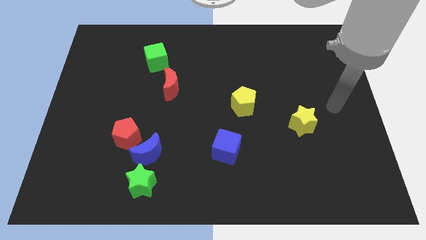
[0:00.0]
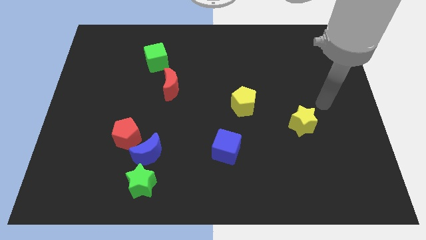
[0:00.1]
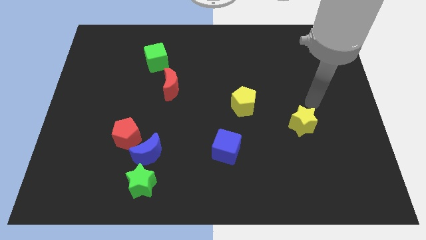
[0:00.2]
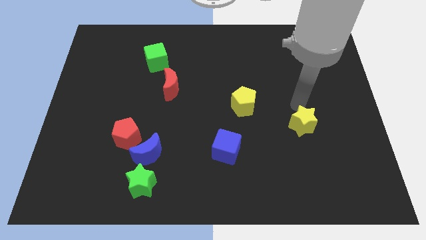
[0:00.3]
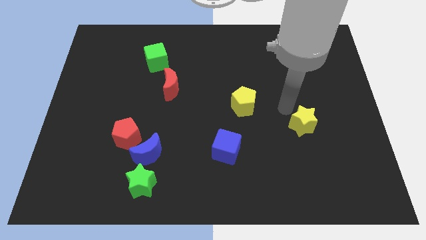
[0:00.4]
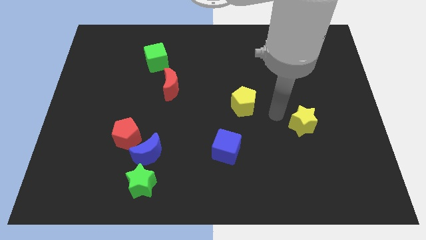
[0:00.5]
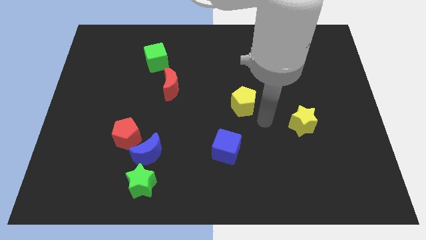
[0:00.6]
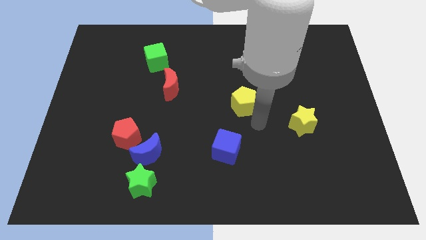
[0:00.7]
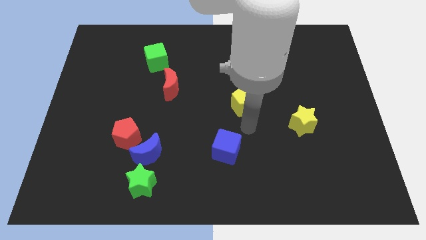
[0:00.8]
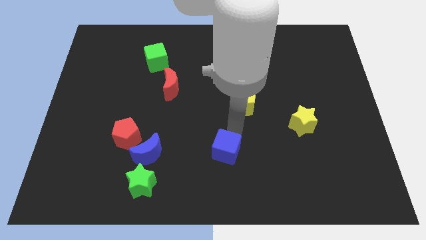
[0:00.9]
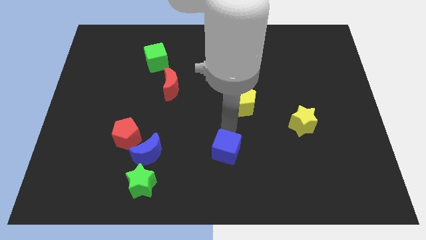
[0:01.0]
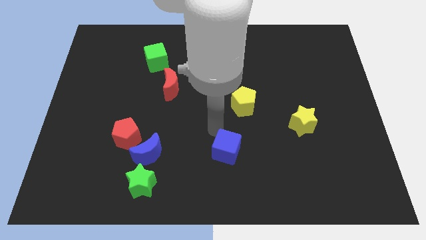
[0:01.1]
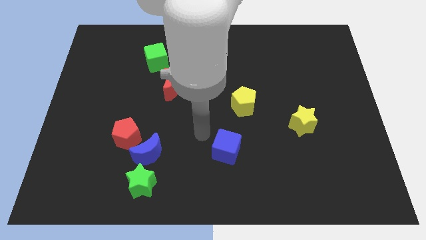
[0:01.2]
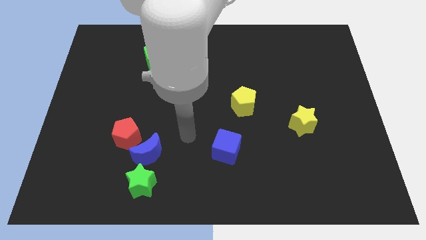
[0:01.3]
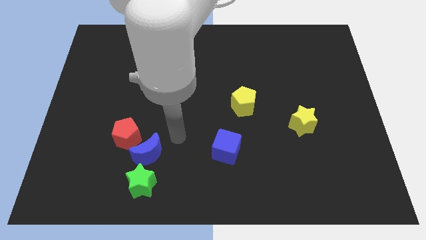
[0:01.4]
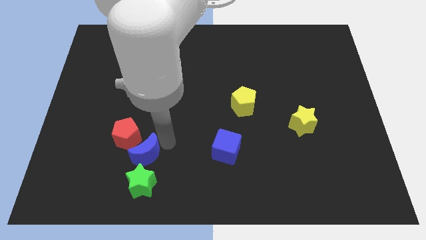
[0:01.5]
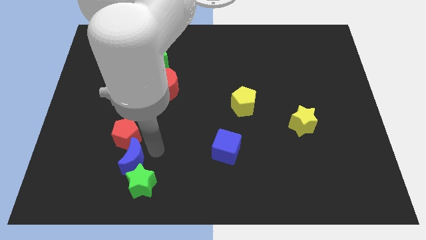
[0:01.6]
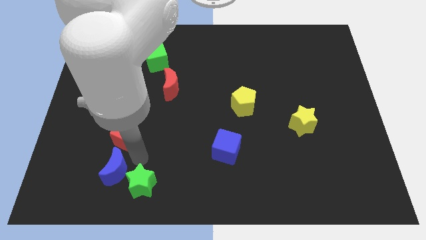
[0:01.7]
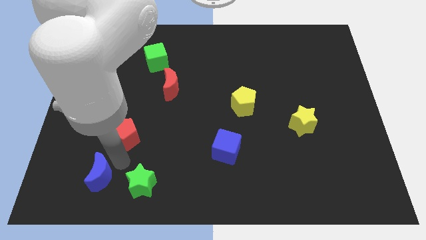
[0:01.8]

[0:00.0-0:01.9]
pull the red pentagon apart from the blue moon

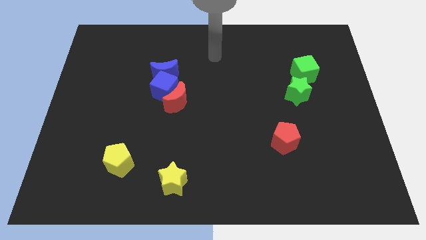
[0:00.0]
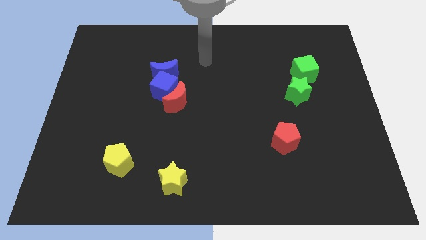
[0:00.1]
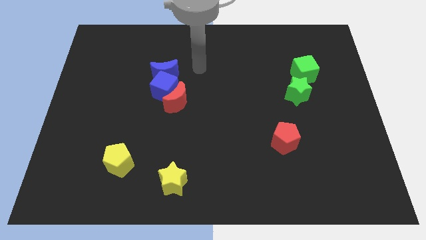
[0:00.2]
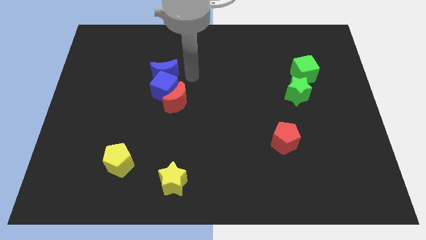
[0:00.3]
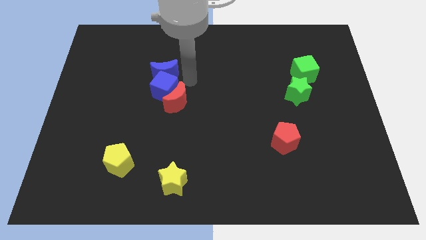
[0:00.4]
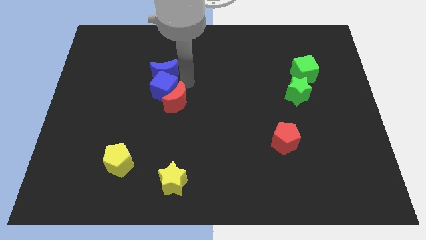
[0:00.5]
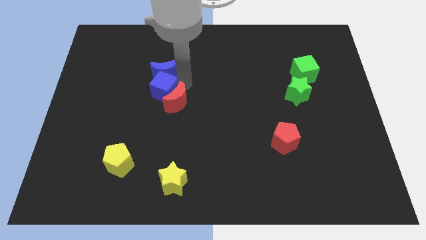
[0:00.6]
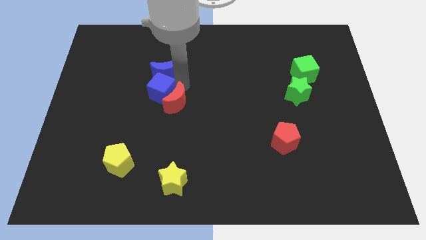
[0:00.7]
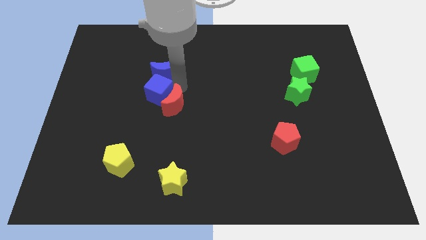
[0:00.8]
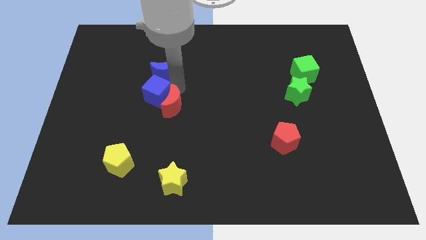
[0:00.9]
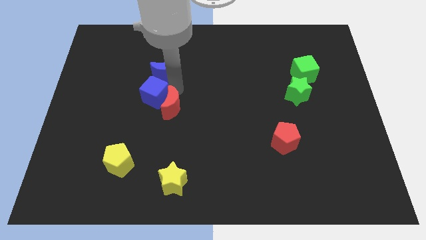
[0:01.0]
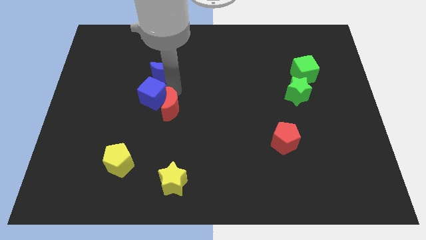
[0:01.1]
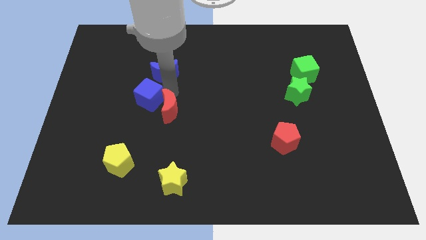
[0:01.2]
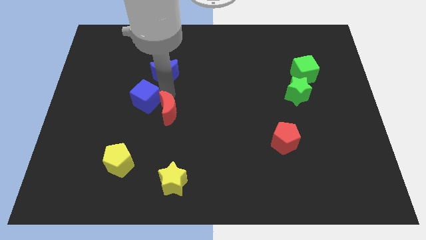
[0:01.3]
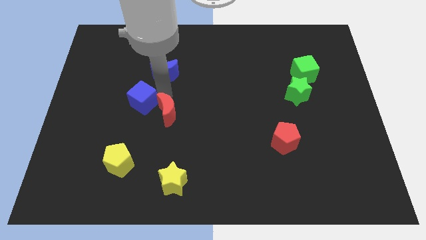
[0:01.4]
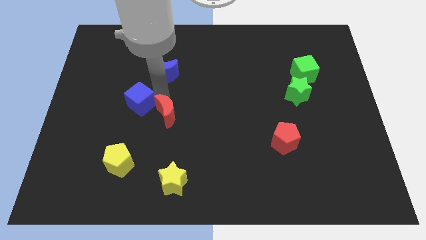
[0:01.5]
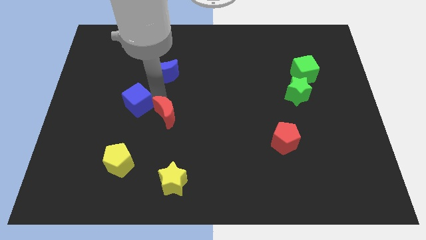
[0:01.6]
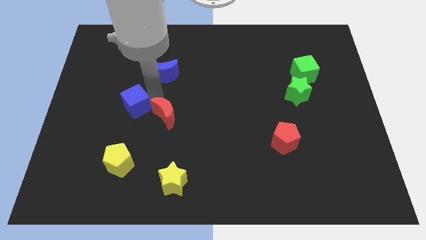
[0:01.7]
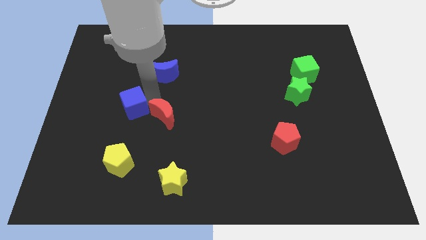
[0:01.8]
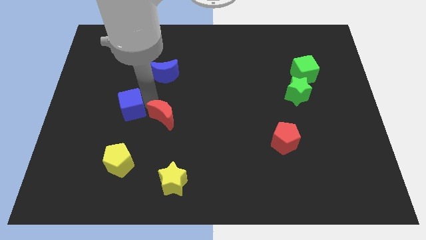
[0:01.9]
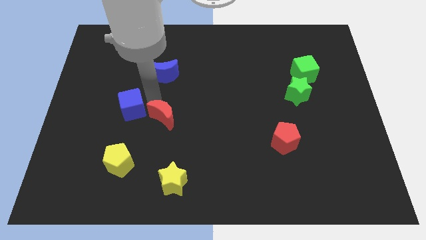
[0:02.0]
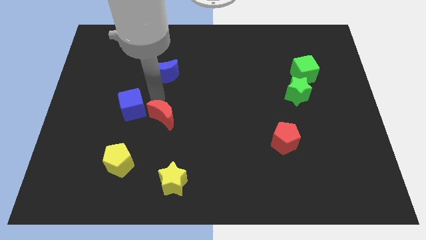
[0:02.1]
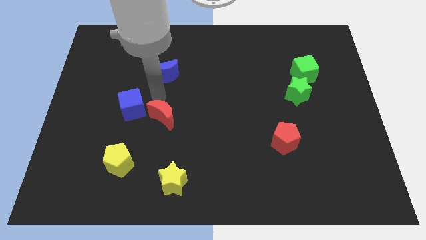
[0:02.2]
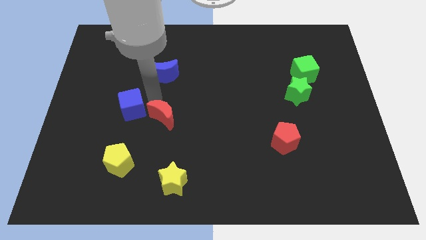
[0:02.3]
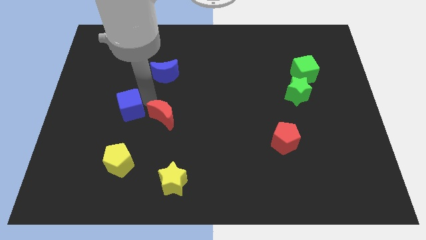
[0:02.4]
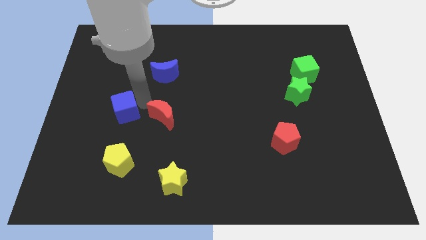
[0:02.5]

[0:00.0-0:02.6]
move the blue cube away from the red moon and blue moon

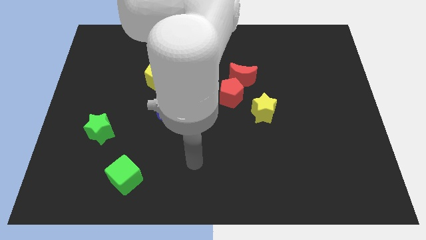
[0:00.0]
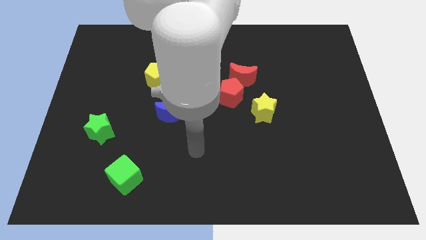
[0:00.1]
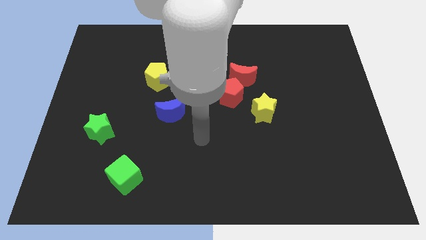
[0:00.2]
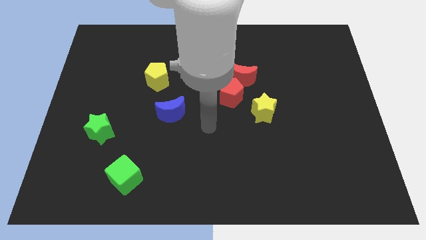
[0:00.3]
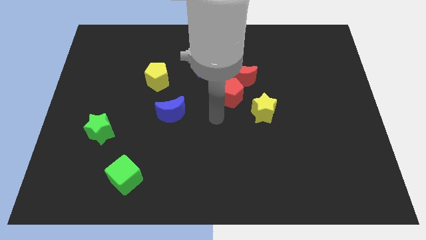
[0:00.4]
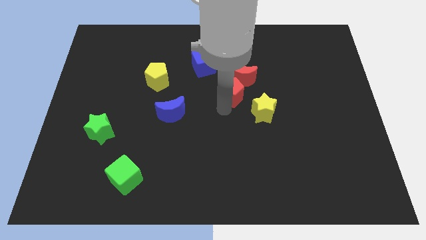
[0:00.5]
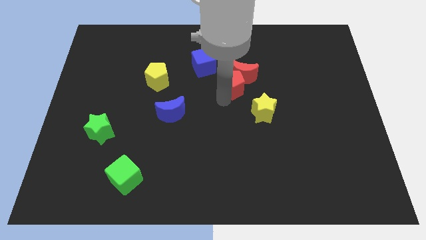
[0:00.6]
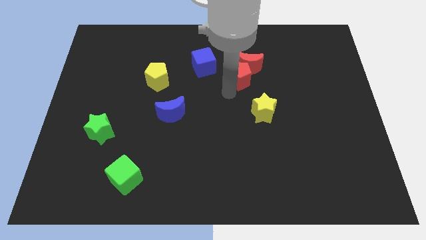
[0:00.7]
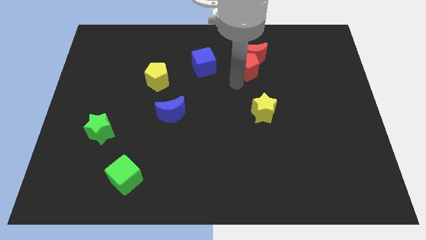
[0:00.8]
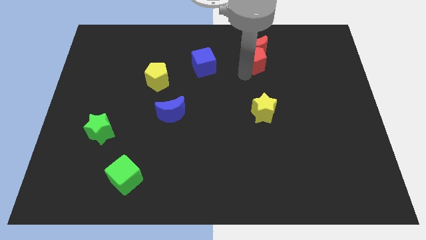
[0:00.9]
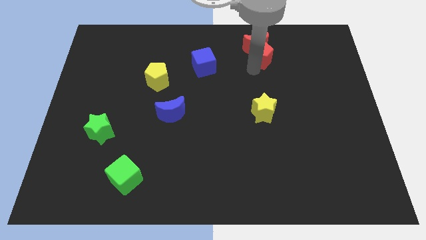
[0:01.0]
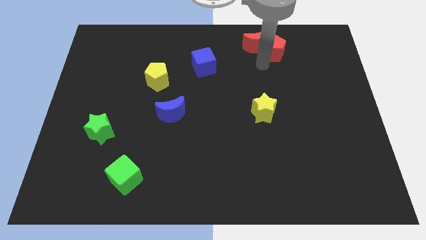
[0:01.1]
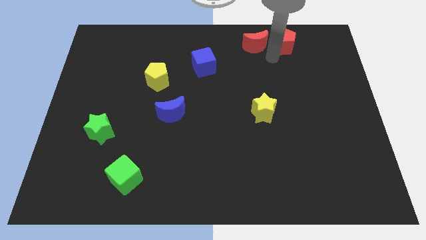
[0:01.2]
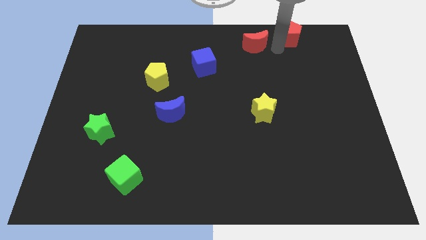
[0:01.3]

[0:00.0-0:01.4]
pull the red moon apart from the red pentagon

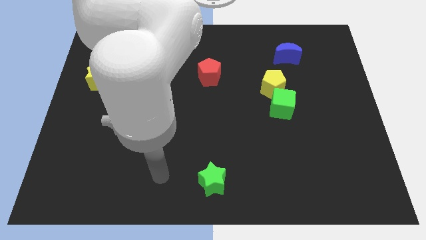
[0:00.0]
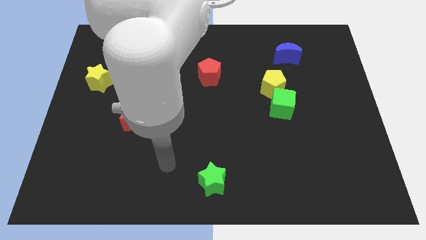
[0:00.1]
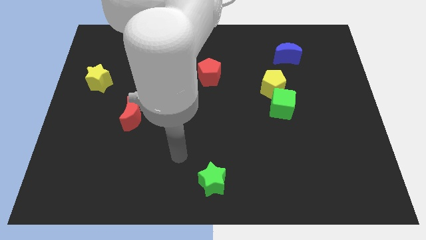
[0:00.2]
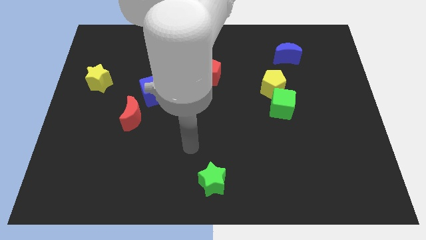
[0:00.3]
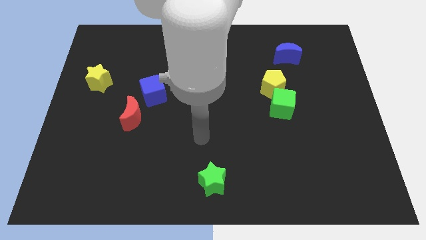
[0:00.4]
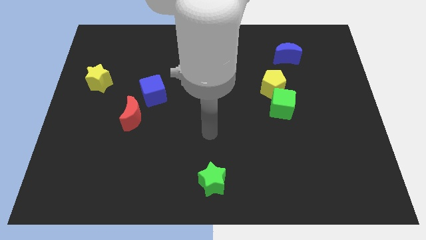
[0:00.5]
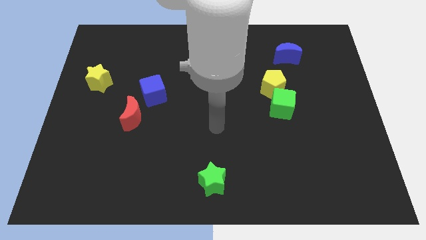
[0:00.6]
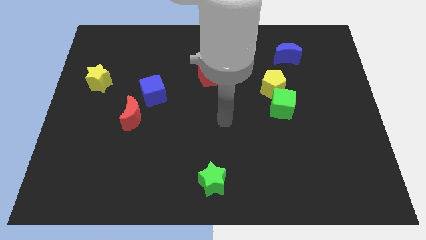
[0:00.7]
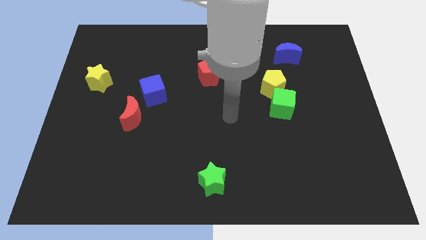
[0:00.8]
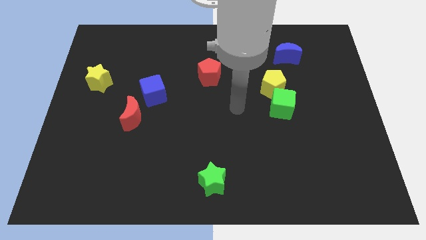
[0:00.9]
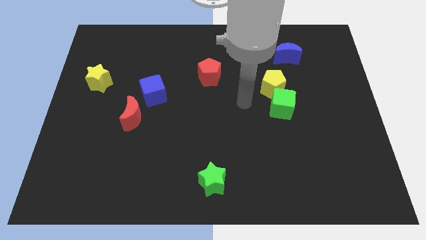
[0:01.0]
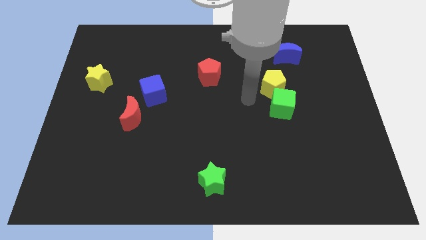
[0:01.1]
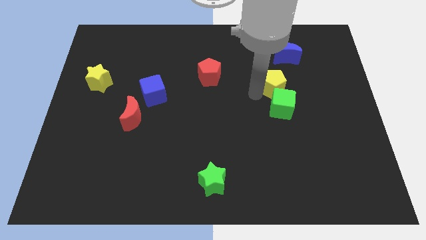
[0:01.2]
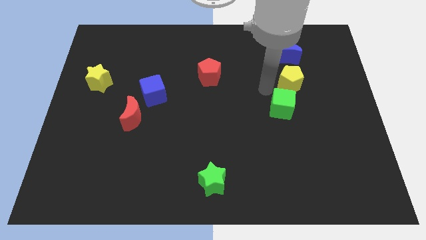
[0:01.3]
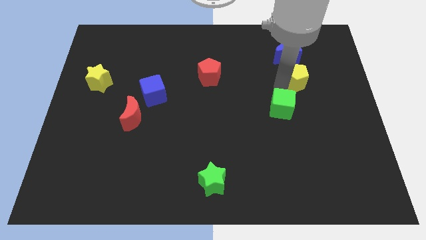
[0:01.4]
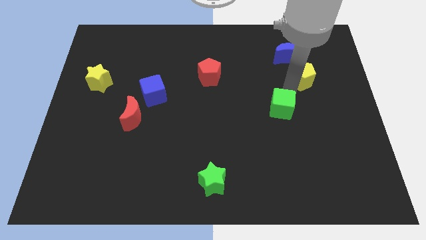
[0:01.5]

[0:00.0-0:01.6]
move the green cube away from the yellow pentagon

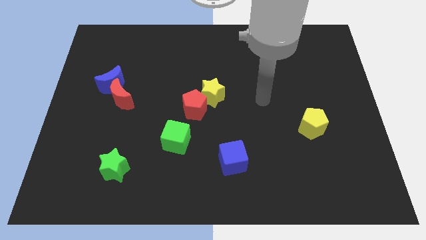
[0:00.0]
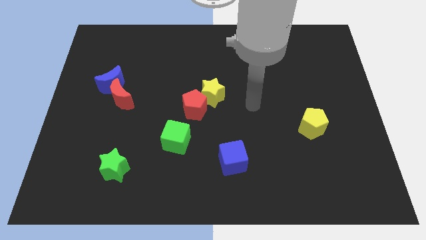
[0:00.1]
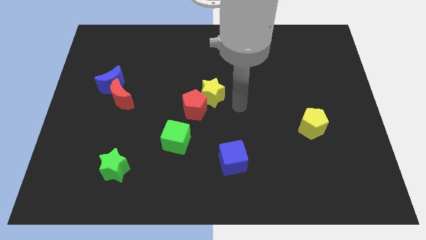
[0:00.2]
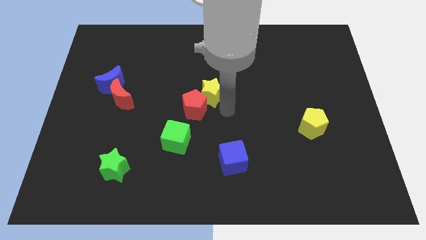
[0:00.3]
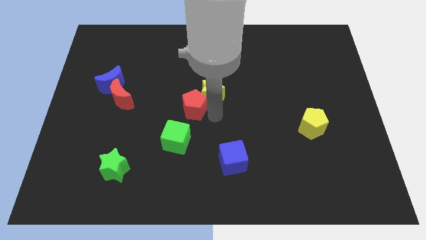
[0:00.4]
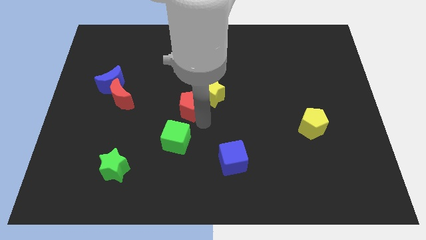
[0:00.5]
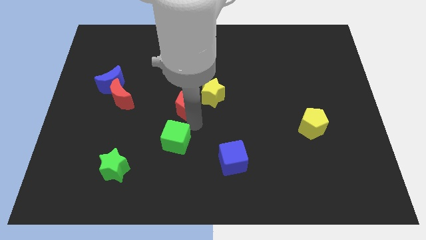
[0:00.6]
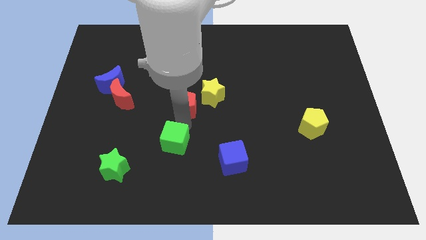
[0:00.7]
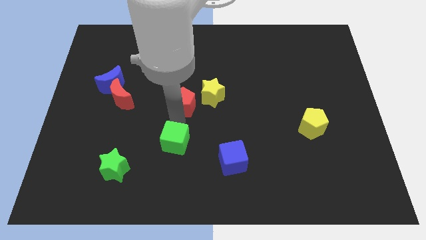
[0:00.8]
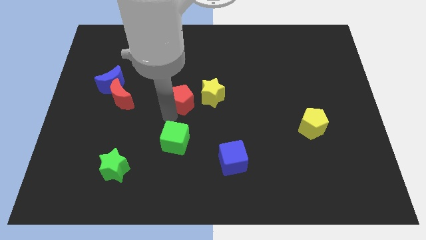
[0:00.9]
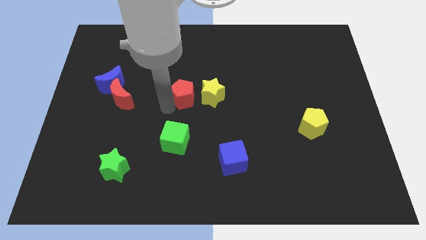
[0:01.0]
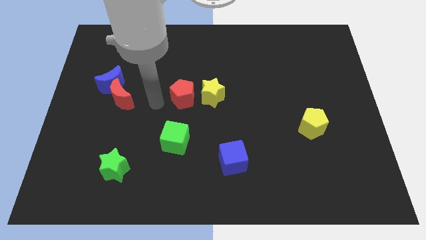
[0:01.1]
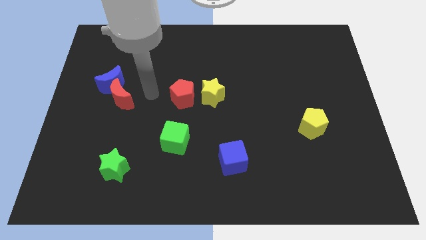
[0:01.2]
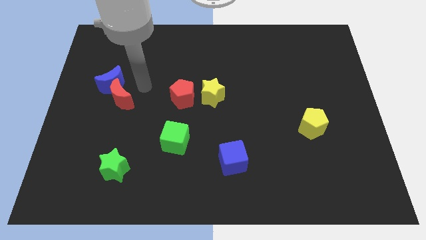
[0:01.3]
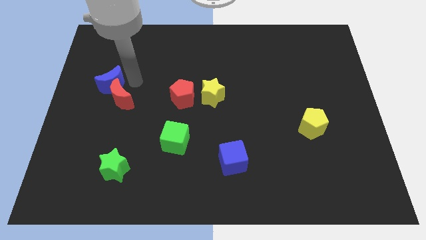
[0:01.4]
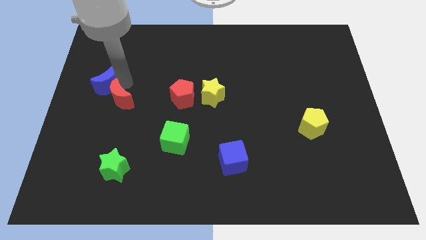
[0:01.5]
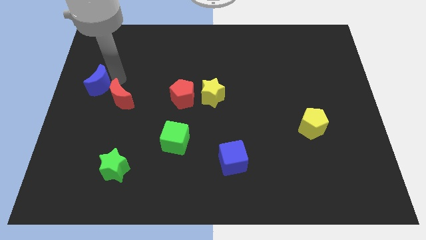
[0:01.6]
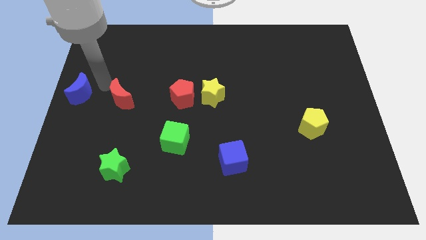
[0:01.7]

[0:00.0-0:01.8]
separate the red moon from the blue moon

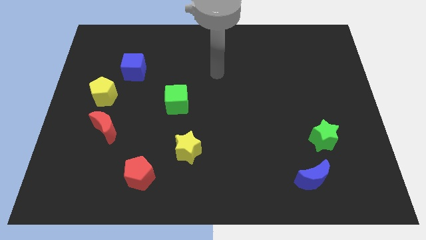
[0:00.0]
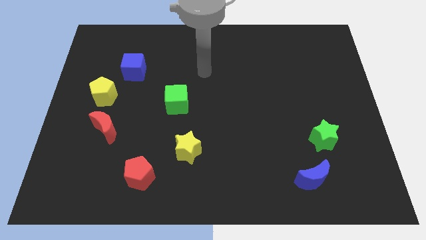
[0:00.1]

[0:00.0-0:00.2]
separate the red moon from the yellow pentagon
